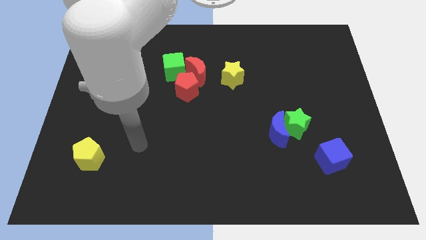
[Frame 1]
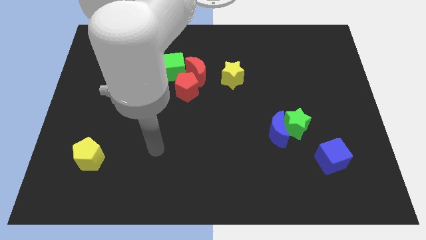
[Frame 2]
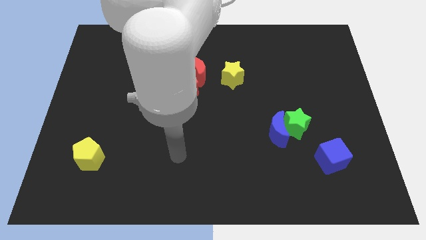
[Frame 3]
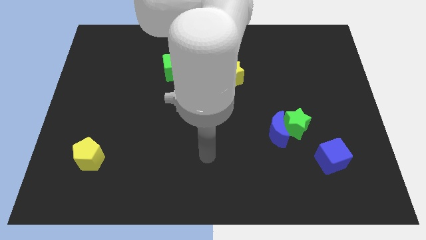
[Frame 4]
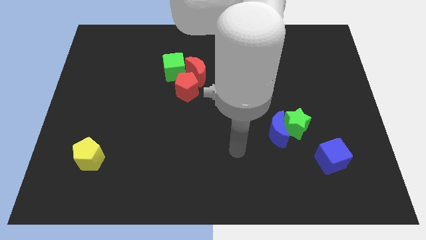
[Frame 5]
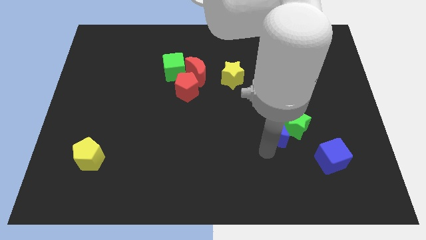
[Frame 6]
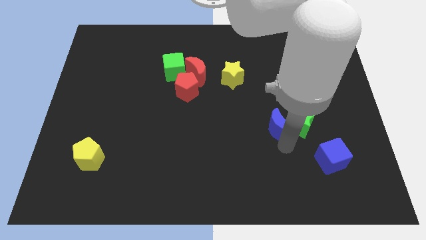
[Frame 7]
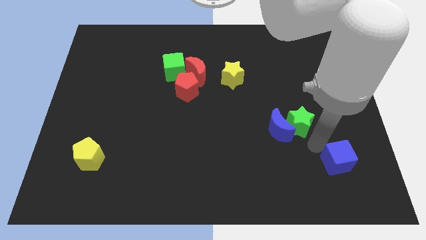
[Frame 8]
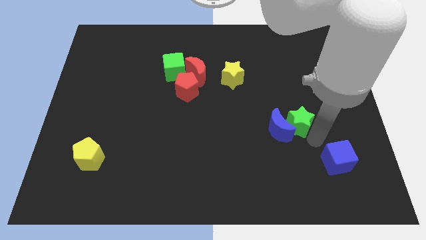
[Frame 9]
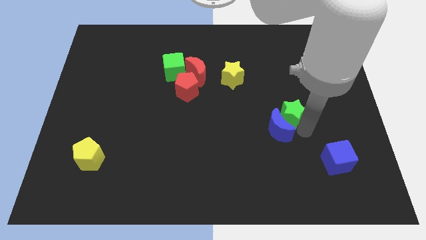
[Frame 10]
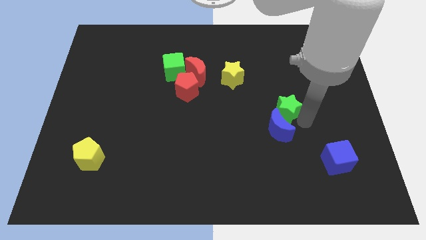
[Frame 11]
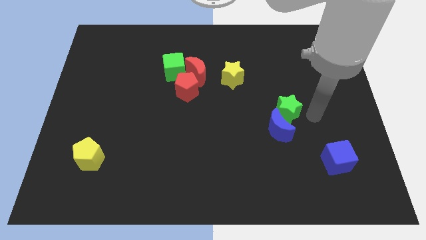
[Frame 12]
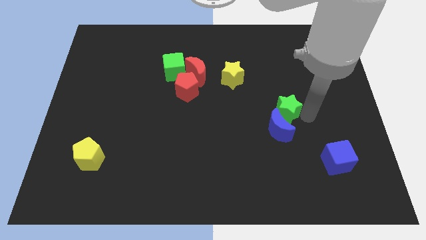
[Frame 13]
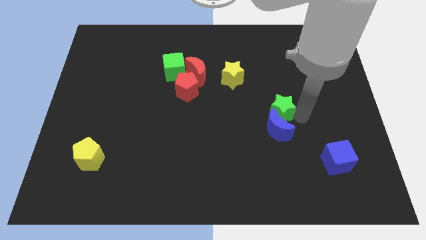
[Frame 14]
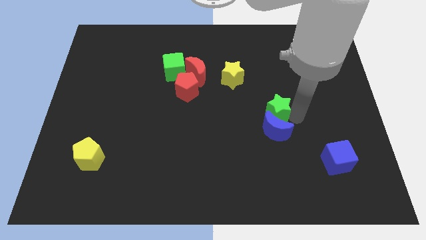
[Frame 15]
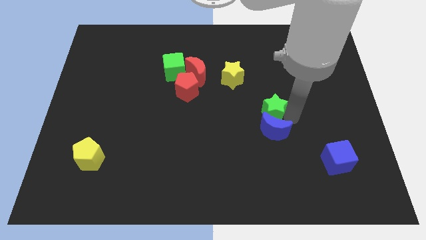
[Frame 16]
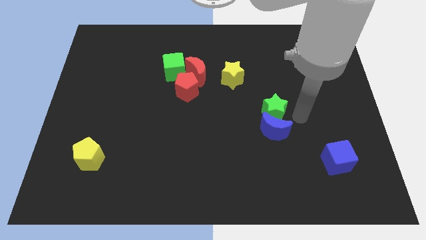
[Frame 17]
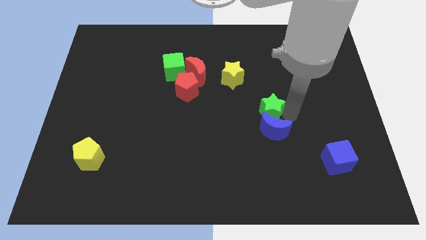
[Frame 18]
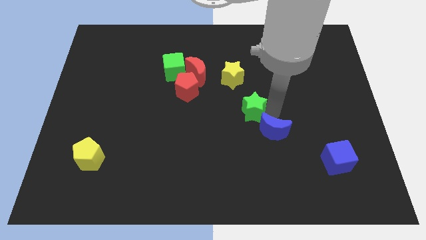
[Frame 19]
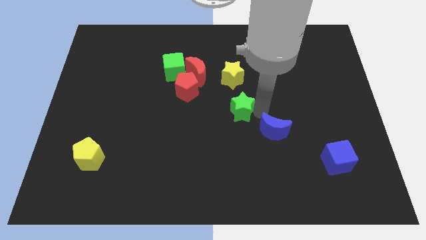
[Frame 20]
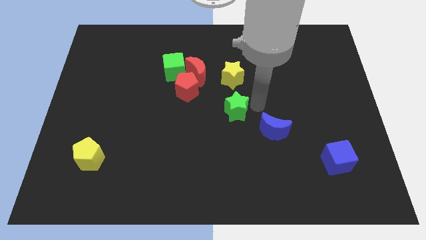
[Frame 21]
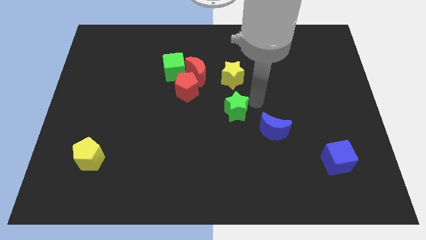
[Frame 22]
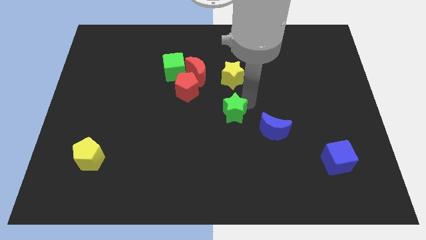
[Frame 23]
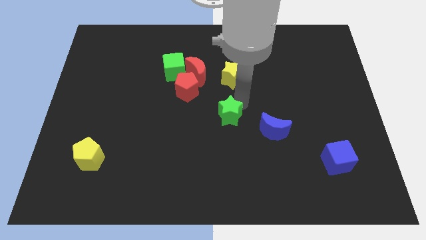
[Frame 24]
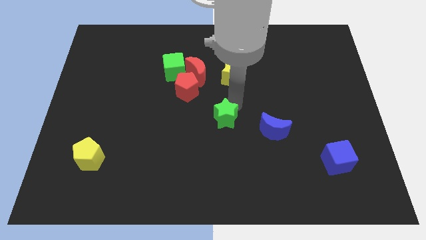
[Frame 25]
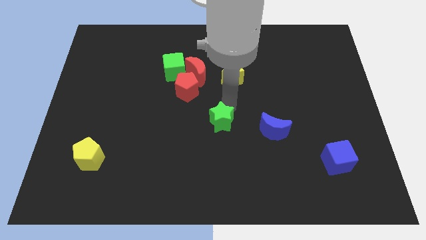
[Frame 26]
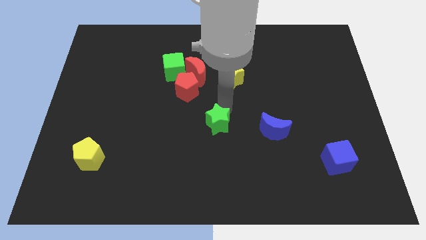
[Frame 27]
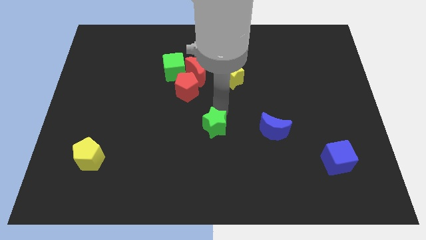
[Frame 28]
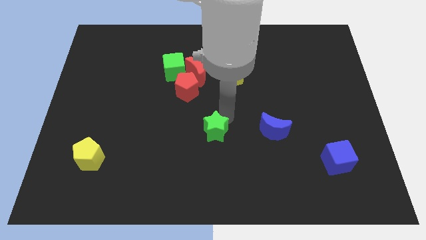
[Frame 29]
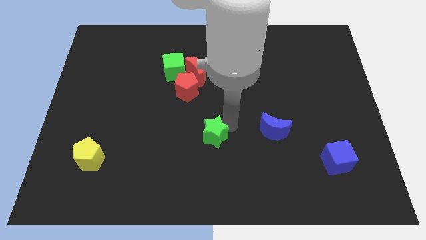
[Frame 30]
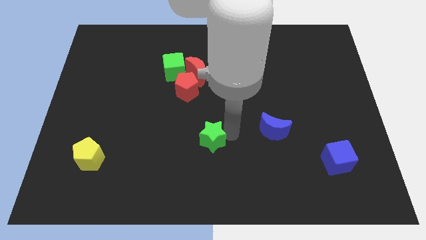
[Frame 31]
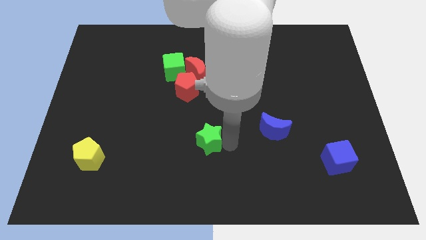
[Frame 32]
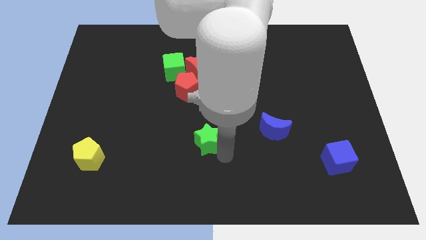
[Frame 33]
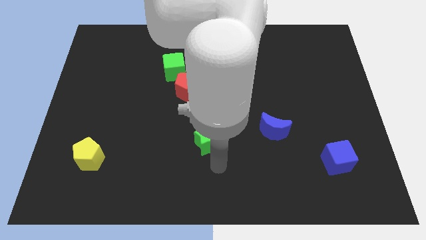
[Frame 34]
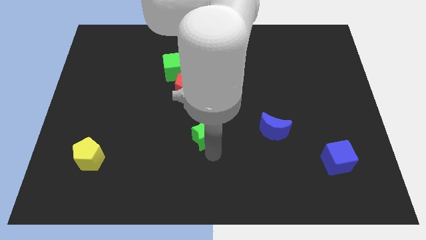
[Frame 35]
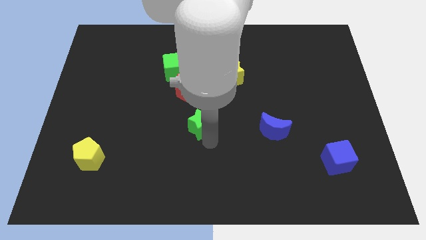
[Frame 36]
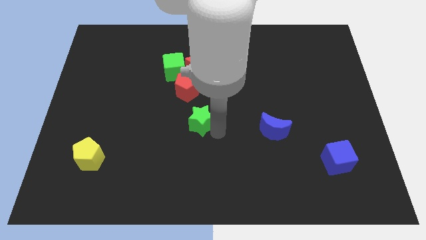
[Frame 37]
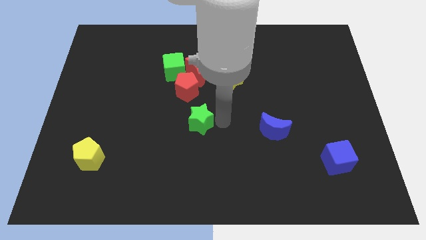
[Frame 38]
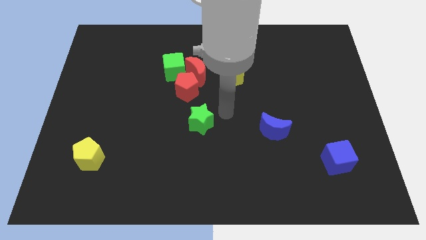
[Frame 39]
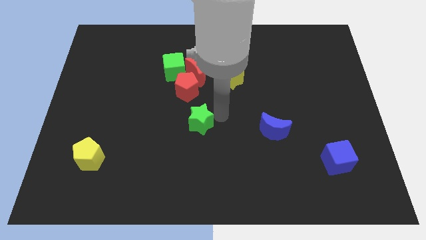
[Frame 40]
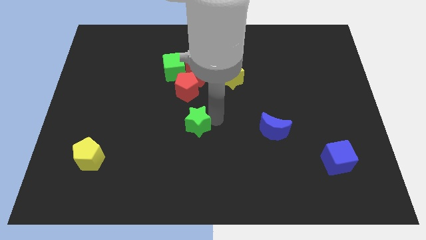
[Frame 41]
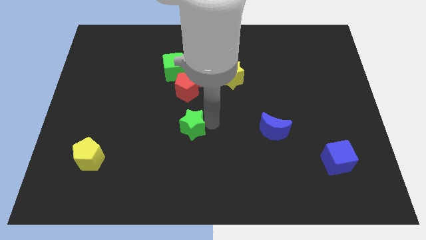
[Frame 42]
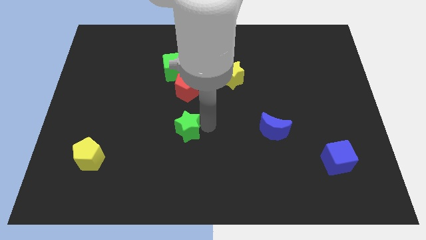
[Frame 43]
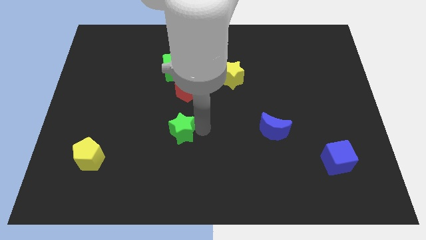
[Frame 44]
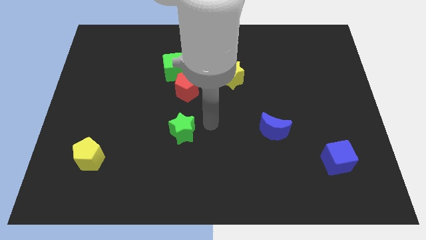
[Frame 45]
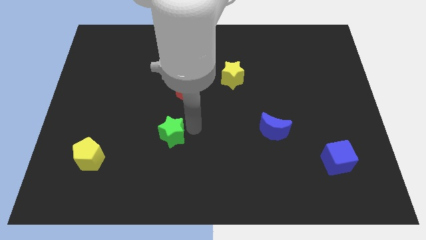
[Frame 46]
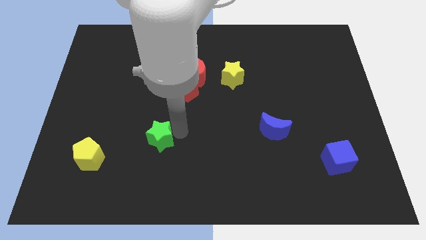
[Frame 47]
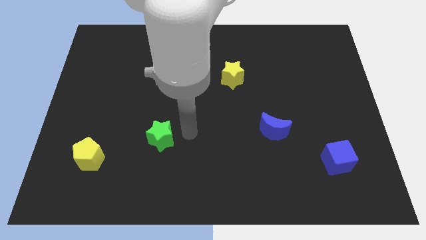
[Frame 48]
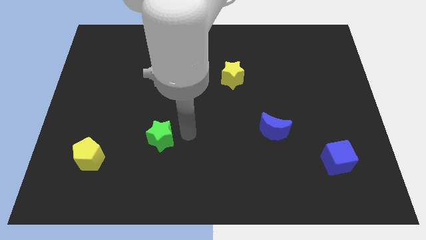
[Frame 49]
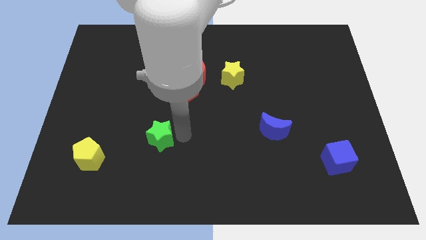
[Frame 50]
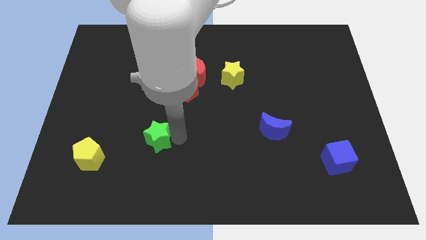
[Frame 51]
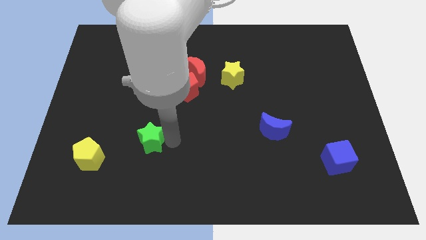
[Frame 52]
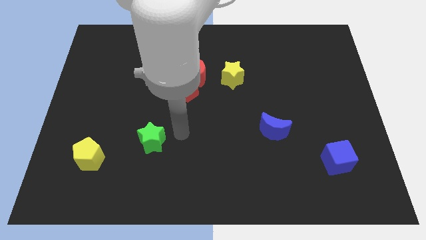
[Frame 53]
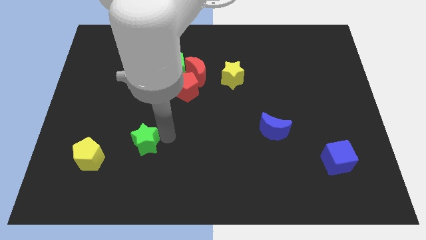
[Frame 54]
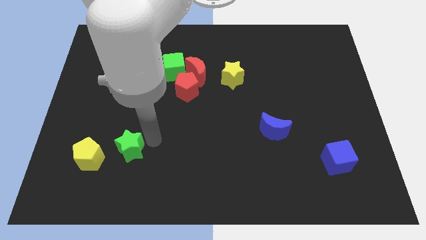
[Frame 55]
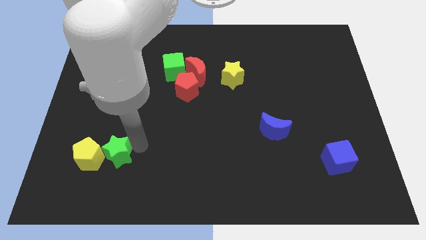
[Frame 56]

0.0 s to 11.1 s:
put the green star close to the yellow pentagon
